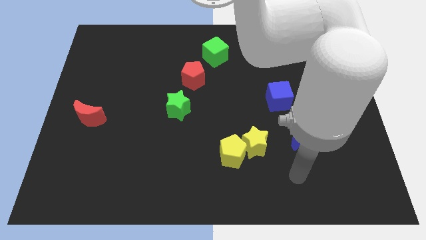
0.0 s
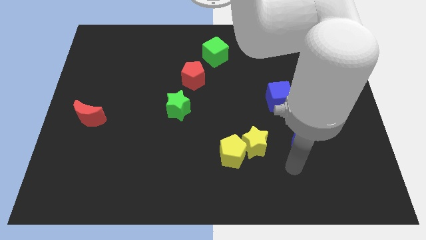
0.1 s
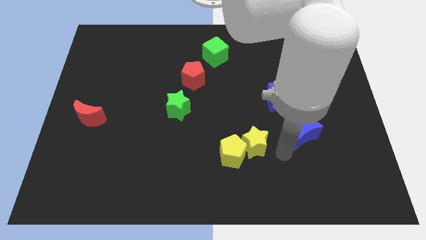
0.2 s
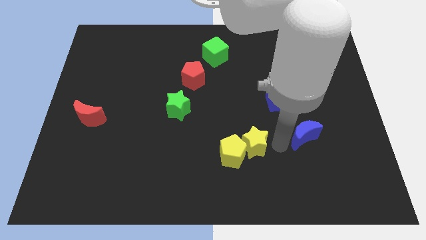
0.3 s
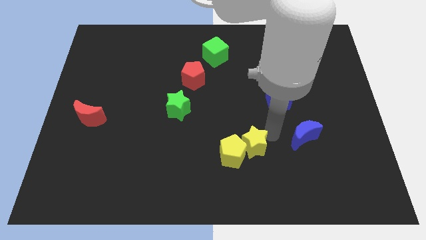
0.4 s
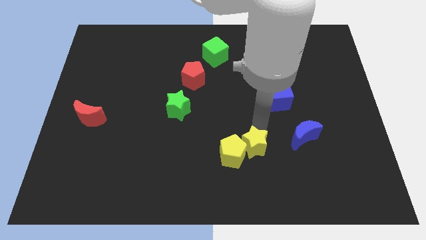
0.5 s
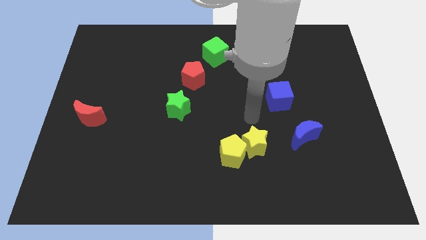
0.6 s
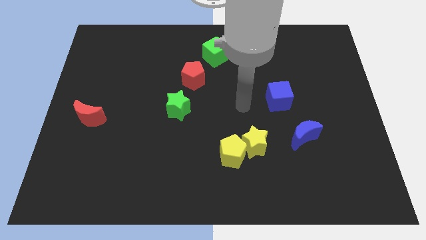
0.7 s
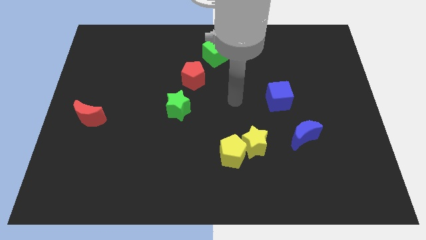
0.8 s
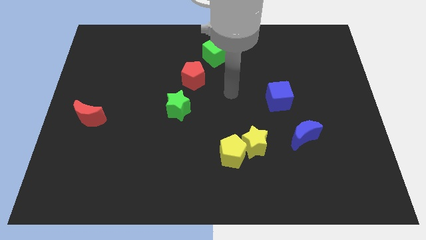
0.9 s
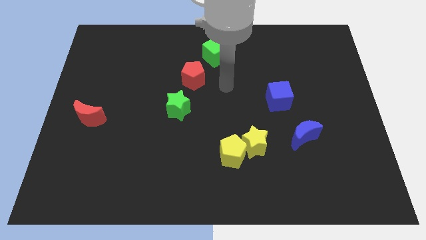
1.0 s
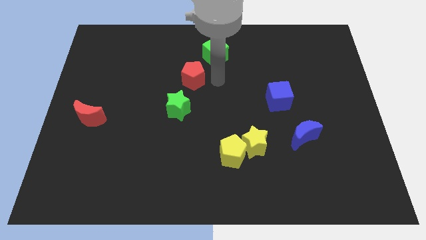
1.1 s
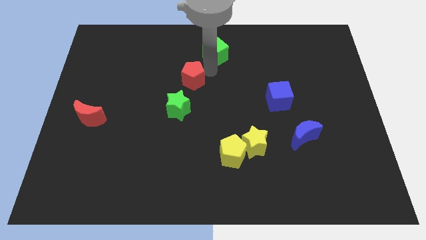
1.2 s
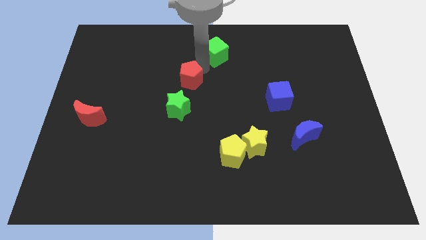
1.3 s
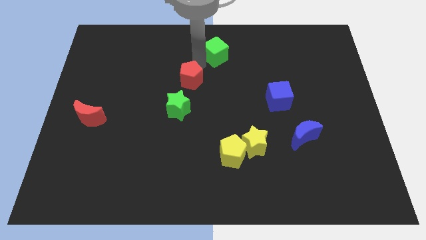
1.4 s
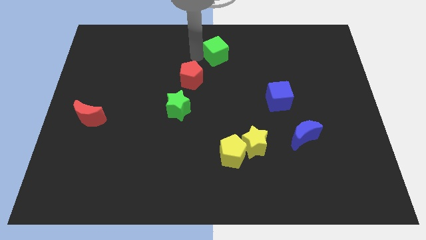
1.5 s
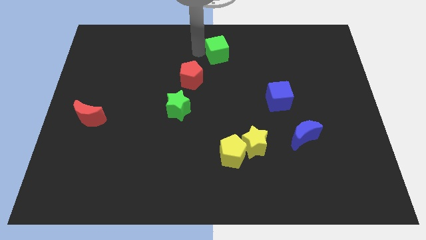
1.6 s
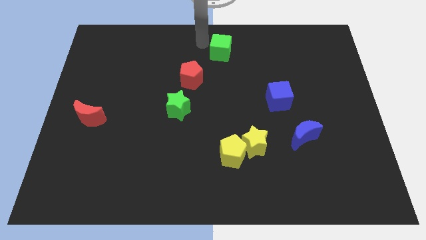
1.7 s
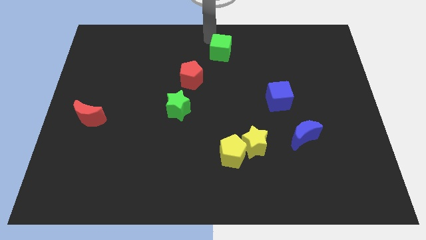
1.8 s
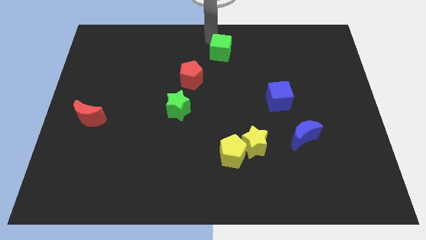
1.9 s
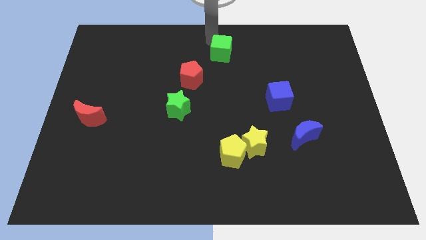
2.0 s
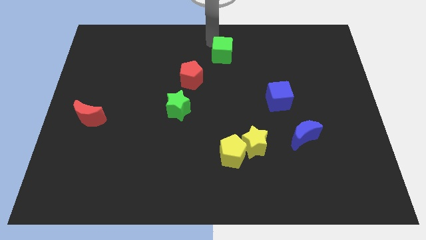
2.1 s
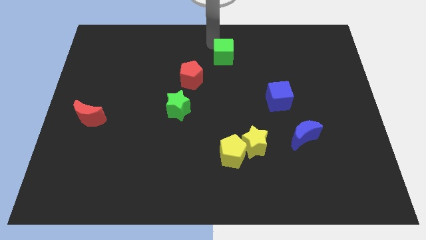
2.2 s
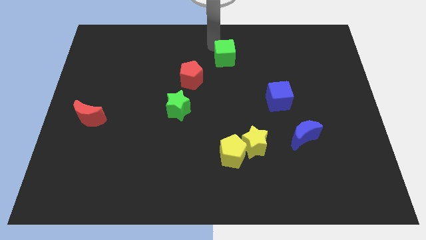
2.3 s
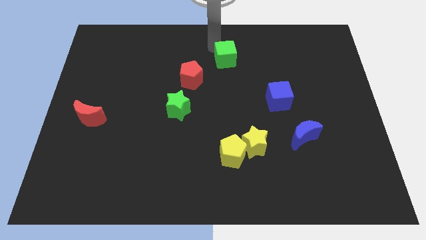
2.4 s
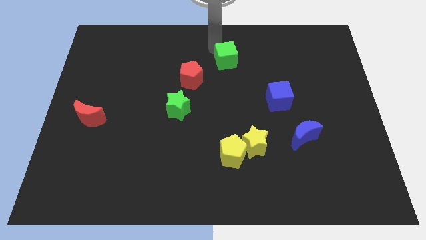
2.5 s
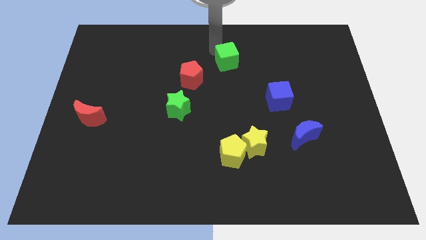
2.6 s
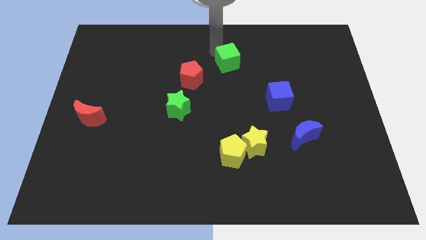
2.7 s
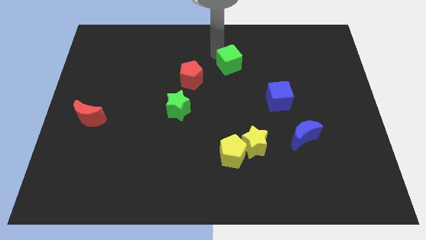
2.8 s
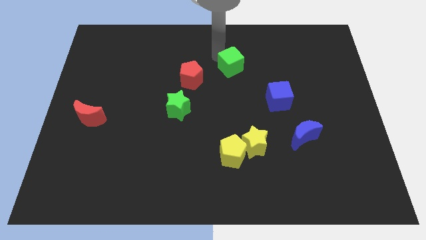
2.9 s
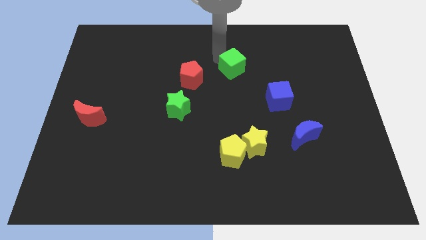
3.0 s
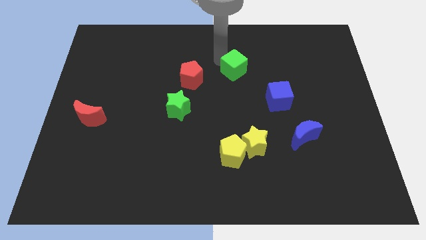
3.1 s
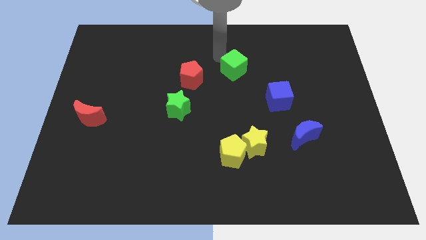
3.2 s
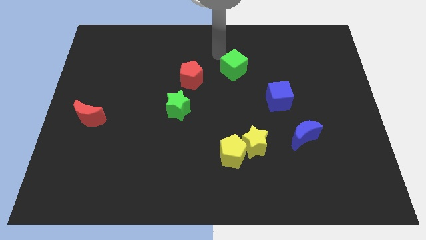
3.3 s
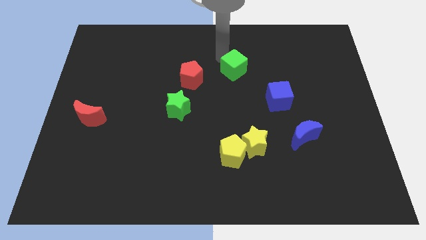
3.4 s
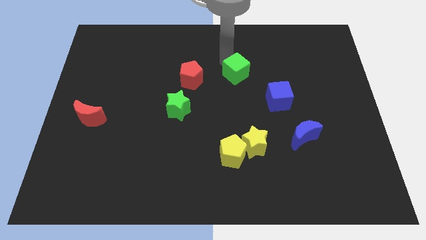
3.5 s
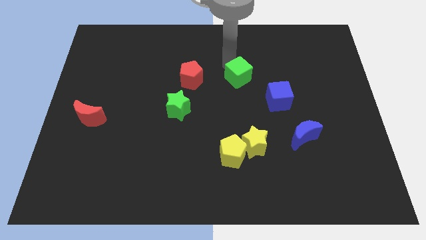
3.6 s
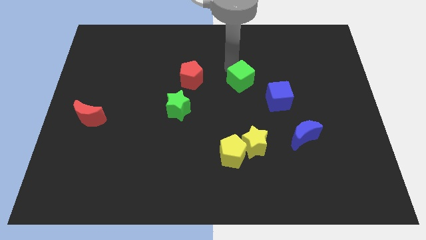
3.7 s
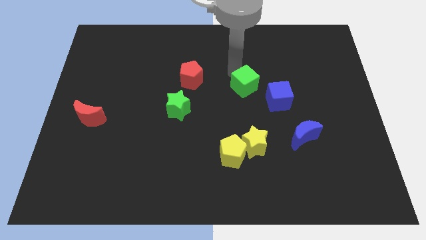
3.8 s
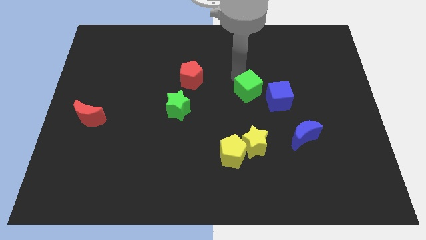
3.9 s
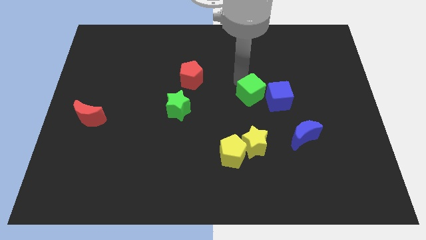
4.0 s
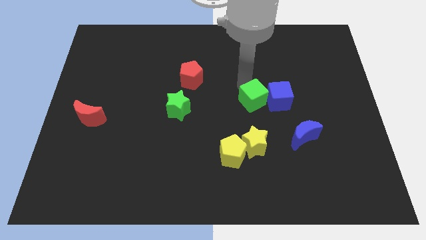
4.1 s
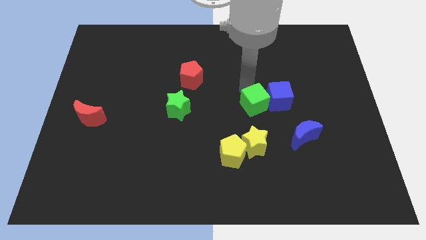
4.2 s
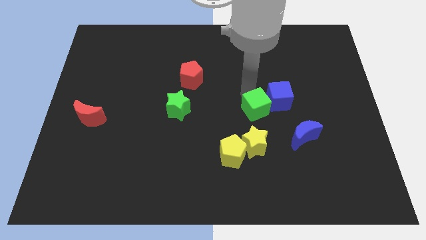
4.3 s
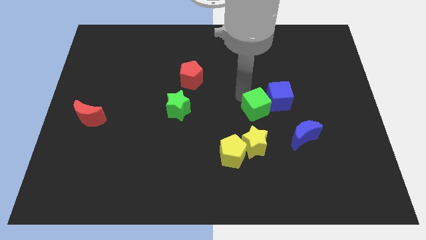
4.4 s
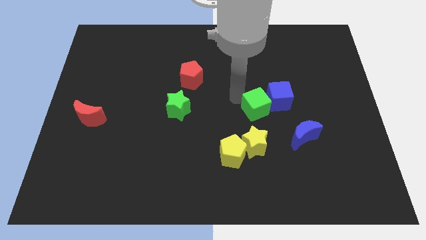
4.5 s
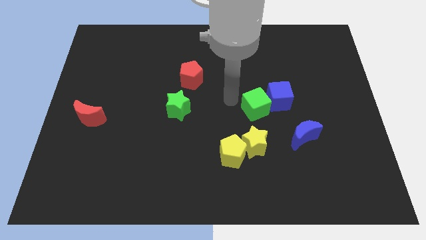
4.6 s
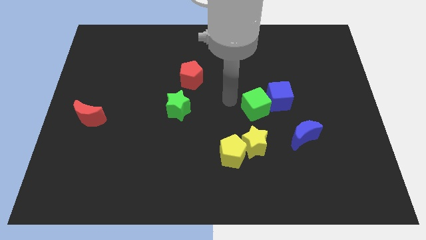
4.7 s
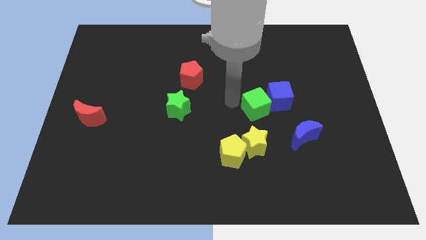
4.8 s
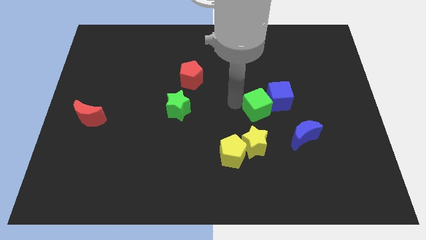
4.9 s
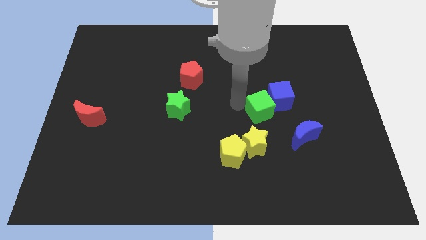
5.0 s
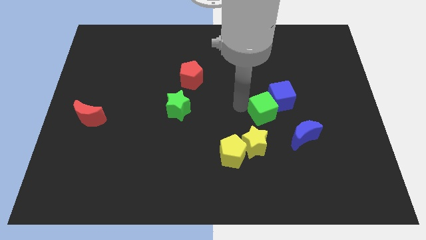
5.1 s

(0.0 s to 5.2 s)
push the green cube downwards and right diagonally

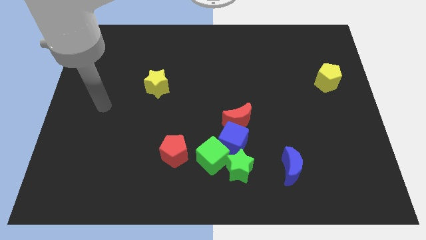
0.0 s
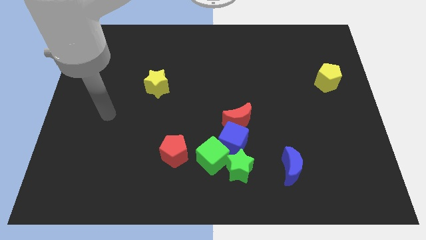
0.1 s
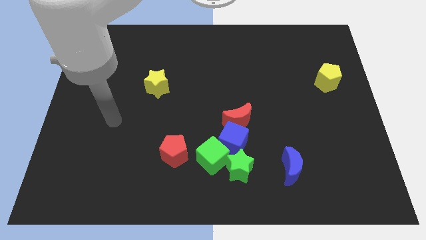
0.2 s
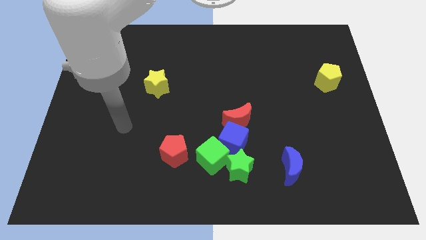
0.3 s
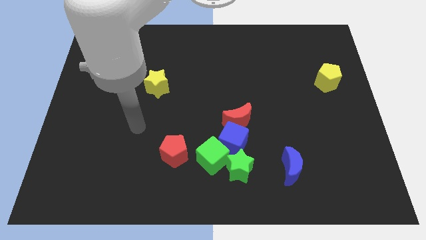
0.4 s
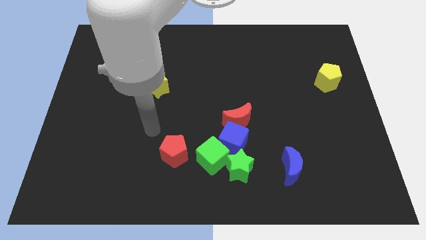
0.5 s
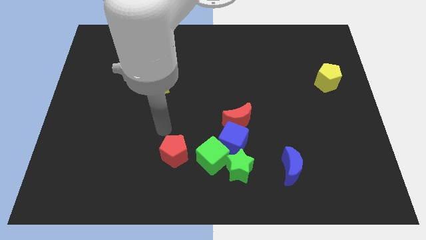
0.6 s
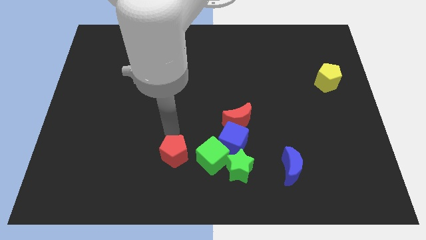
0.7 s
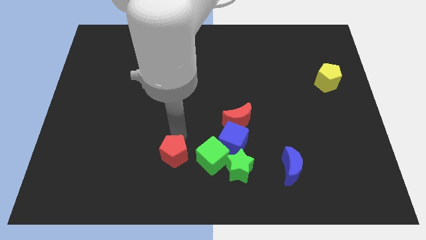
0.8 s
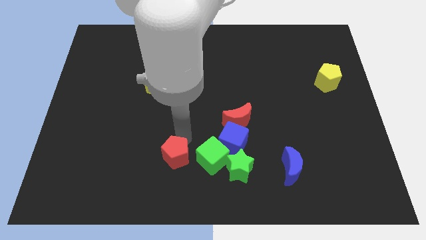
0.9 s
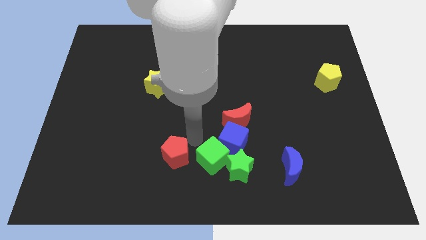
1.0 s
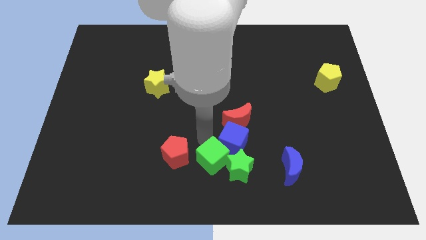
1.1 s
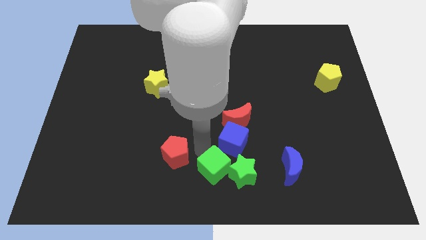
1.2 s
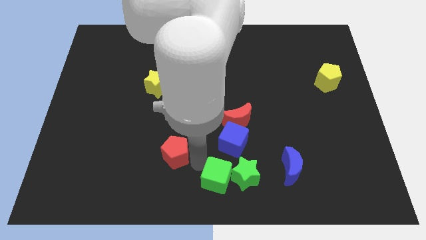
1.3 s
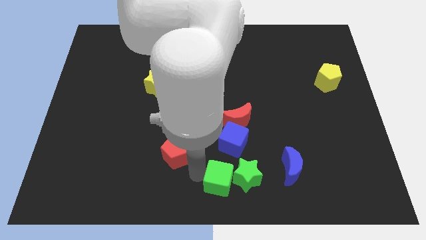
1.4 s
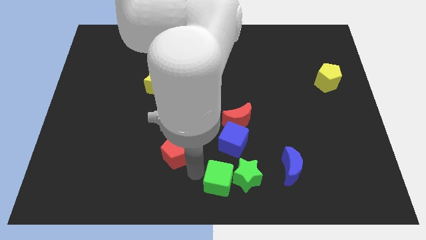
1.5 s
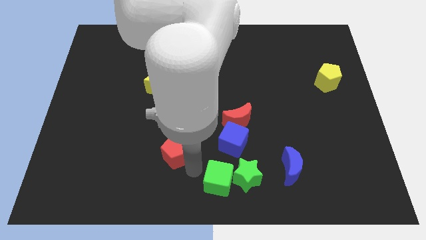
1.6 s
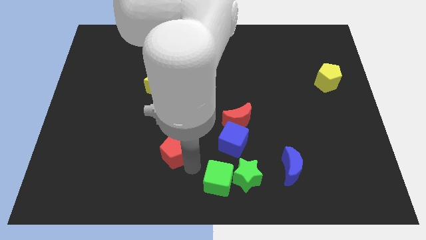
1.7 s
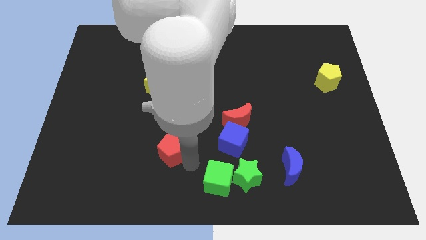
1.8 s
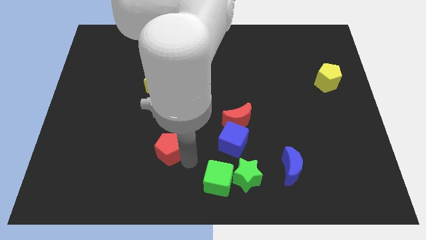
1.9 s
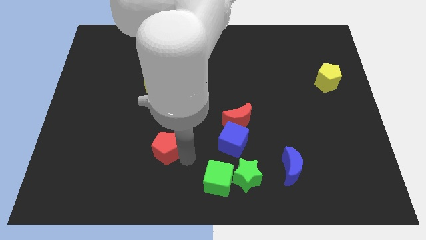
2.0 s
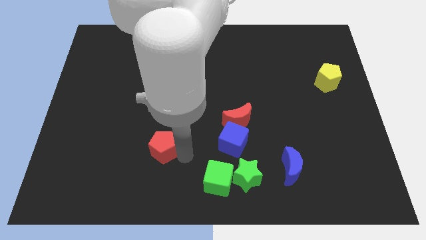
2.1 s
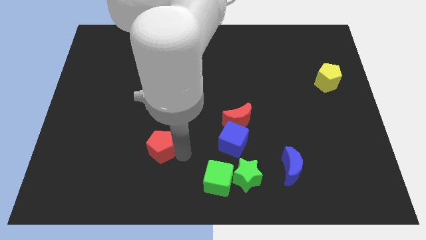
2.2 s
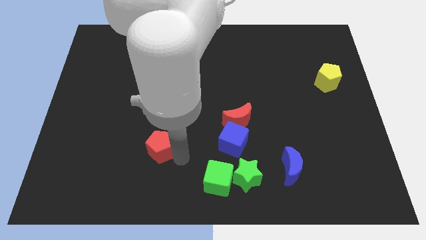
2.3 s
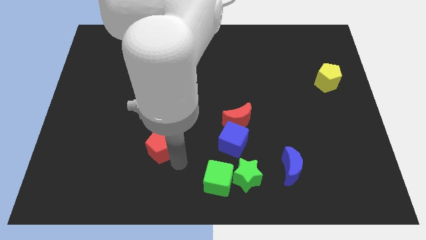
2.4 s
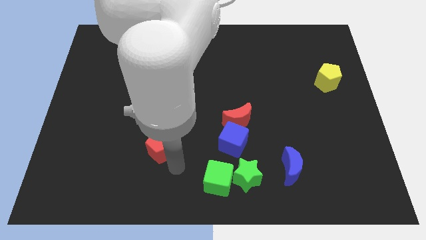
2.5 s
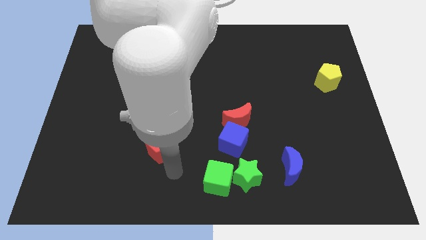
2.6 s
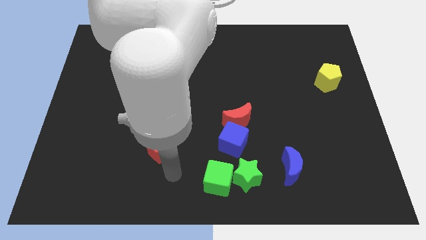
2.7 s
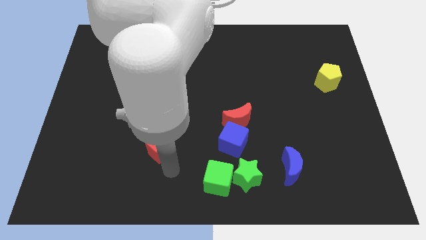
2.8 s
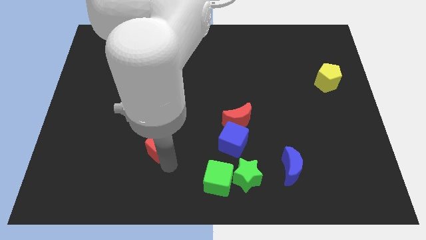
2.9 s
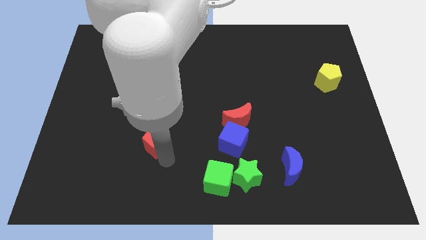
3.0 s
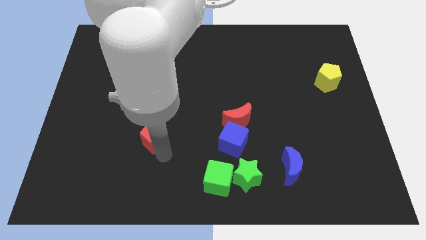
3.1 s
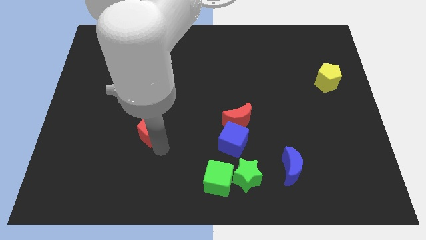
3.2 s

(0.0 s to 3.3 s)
push the red pentagon up and then left somewhat
